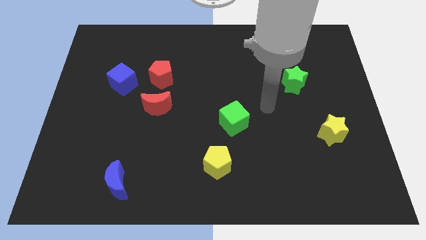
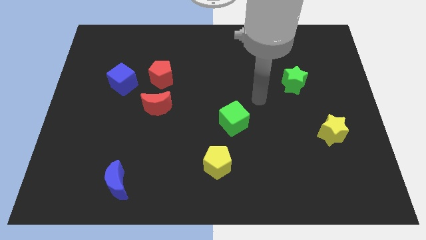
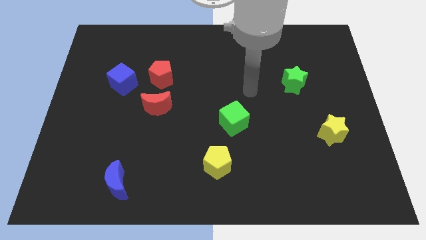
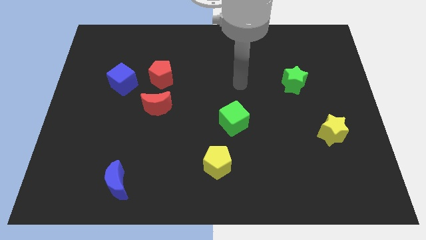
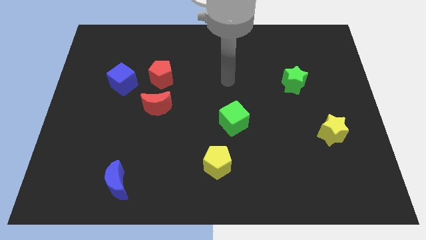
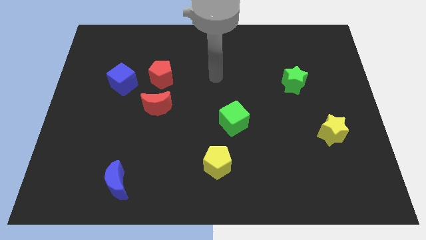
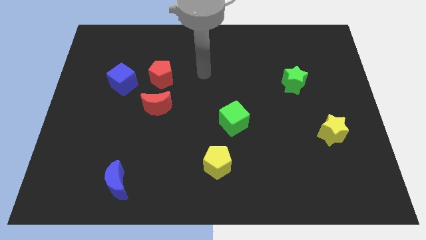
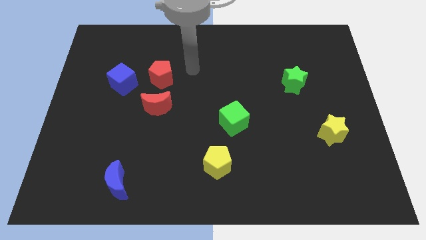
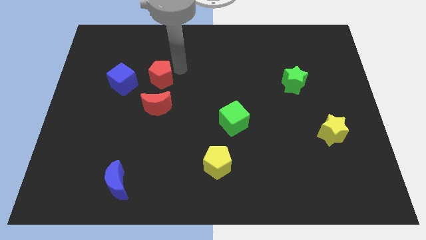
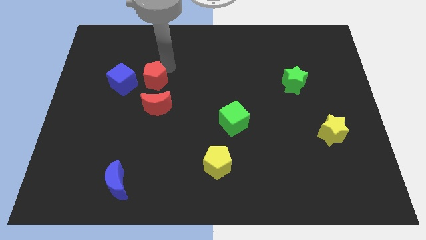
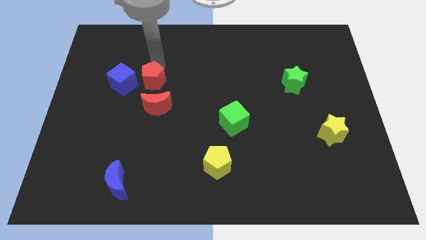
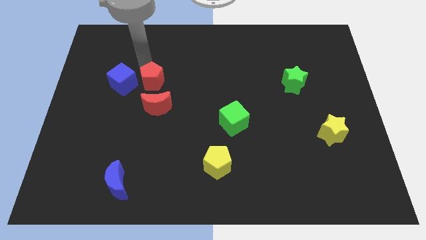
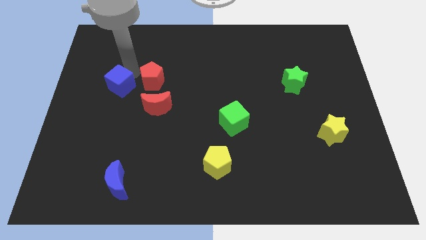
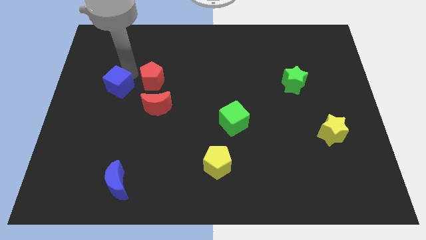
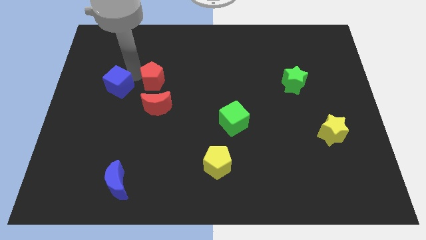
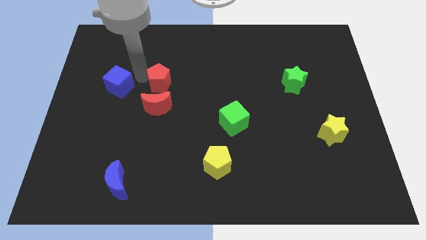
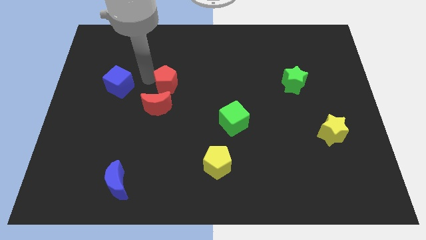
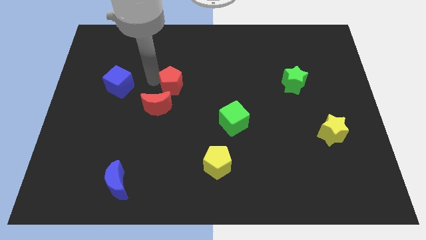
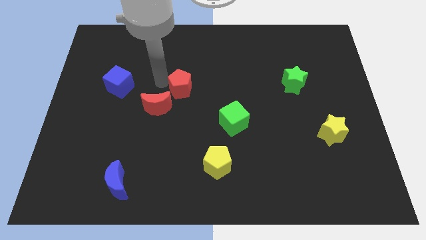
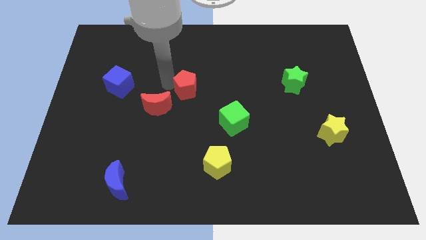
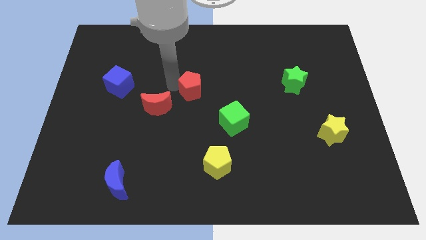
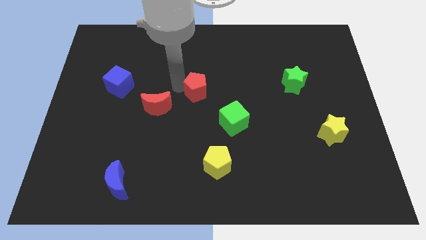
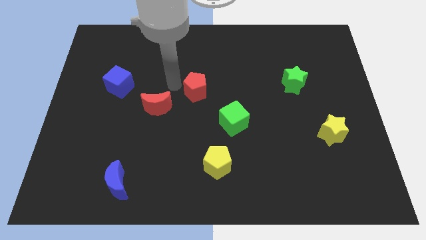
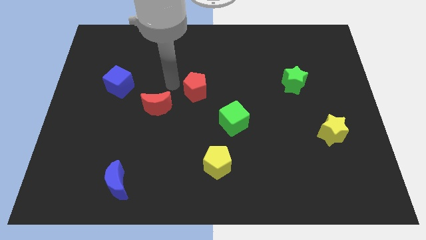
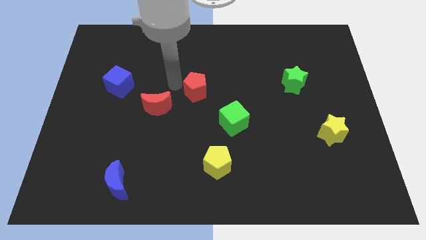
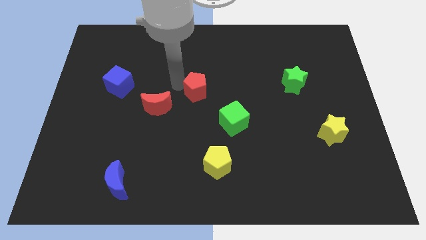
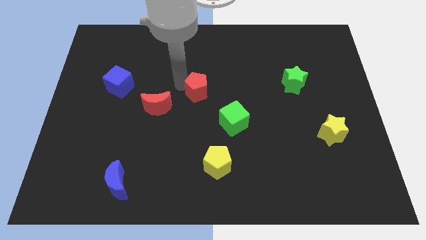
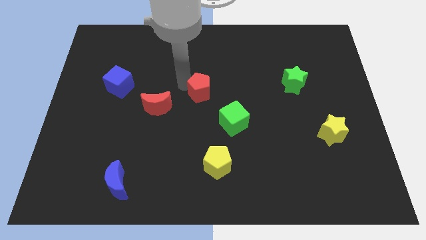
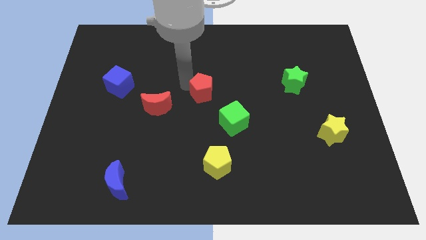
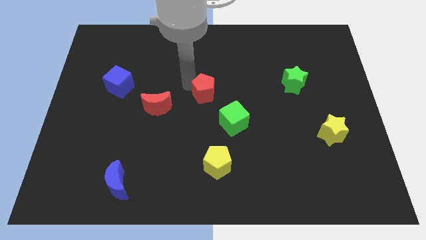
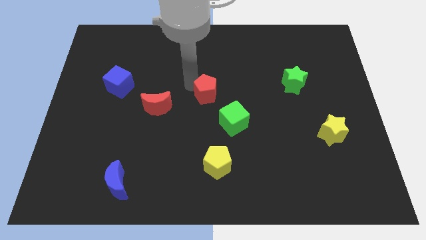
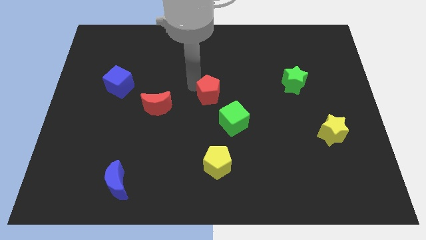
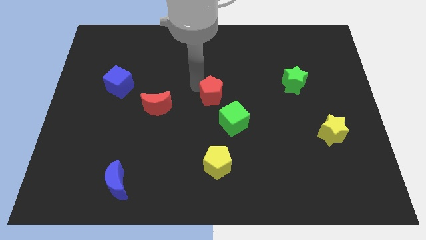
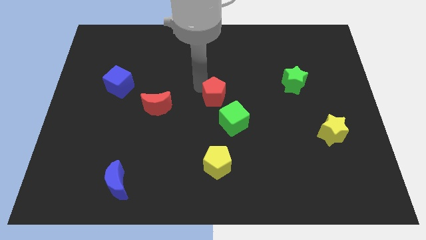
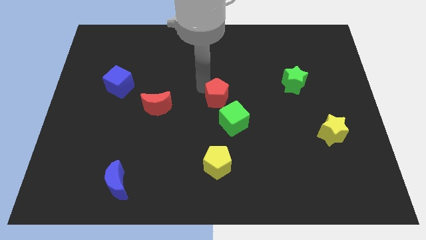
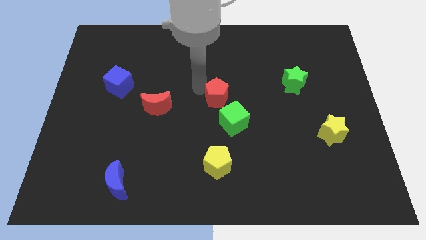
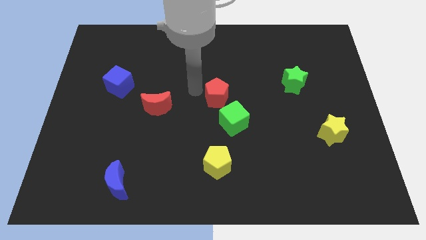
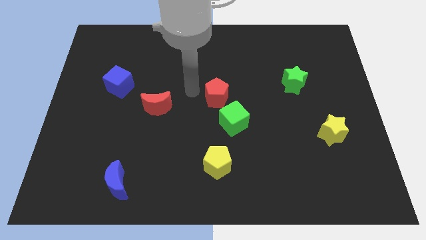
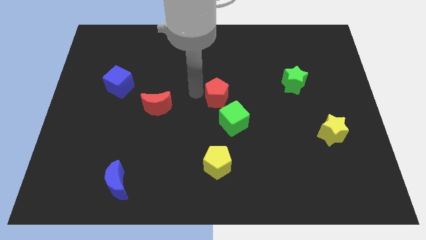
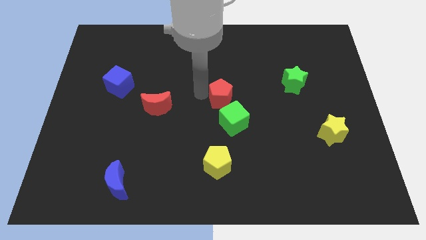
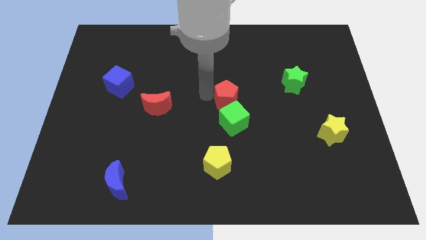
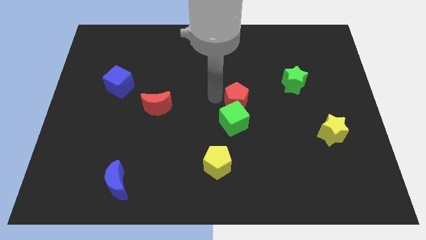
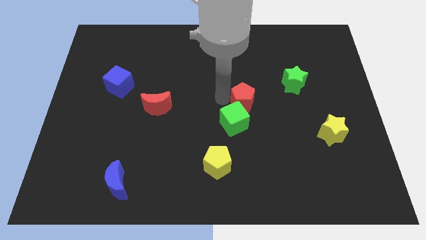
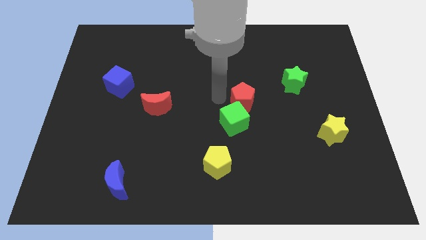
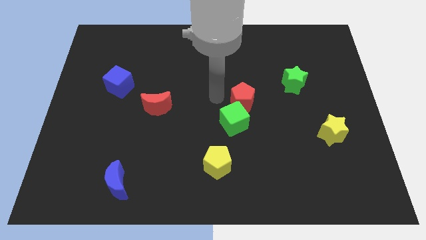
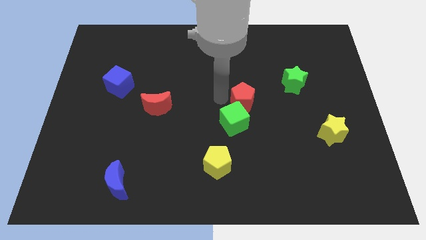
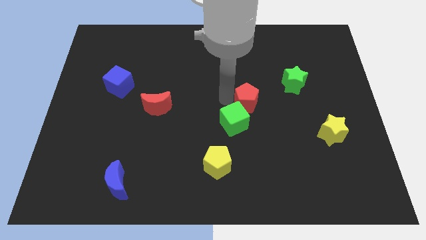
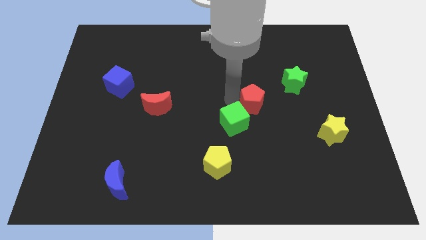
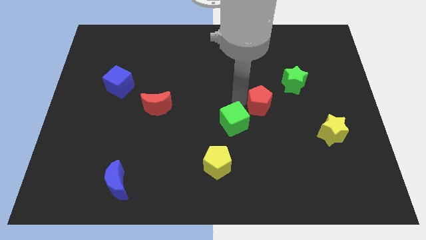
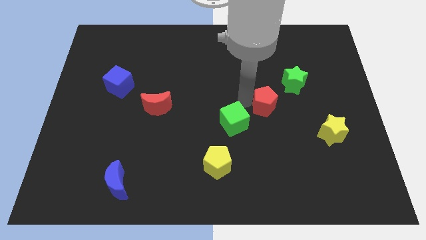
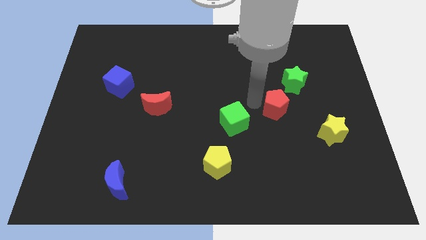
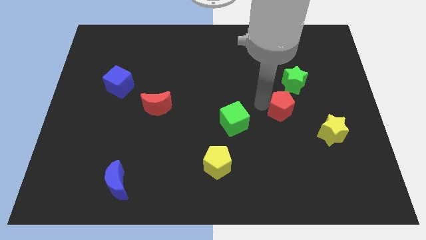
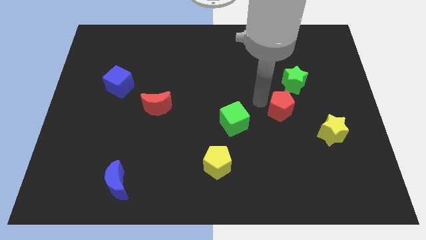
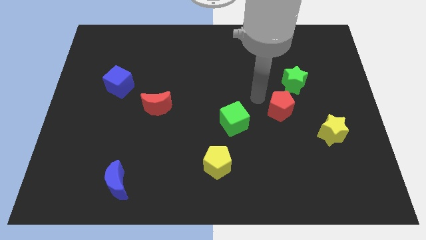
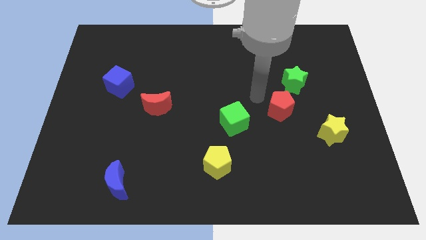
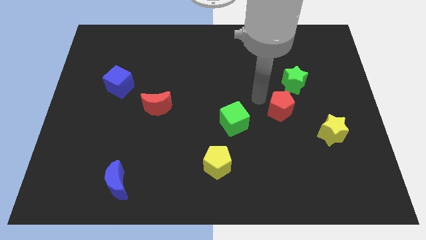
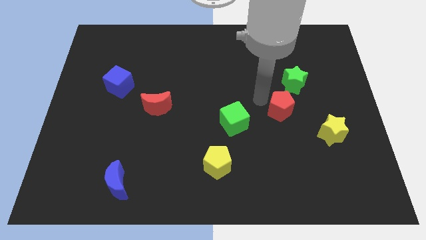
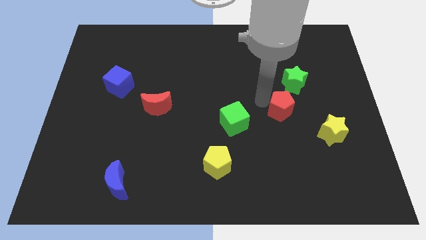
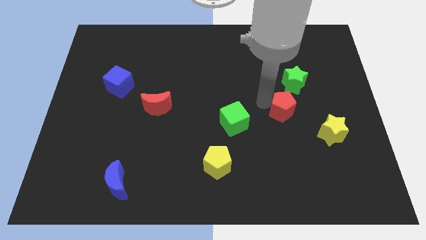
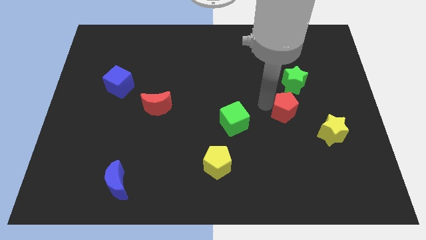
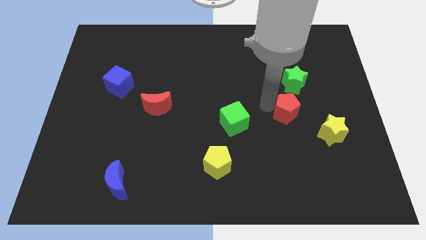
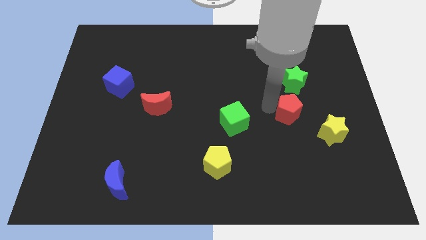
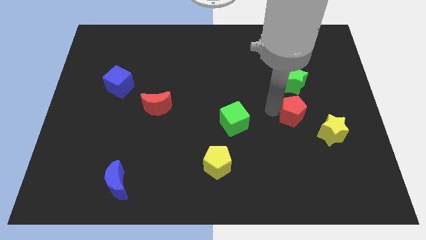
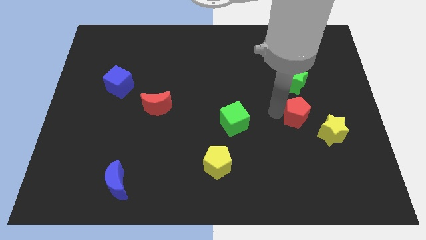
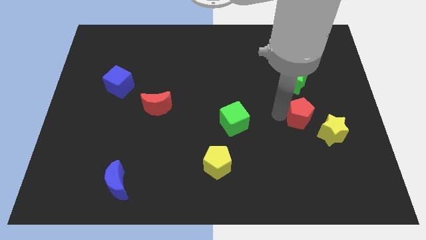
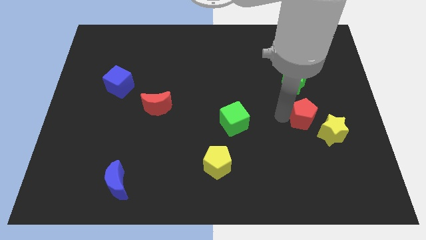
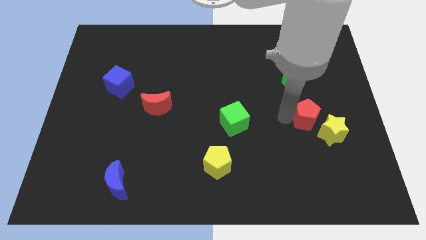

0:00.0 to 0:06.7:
put the red pentagon next to the yellow star
